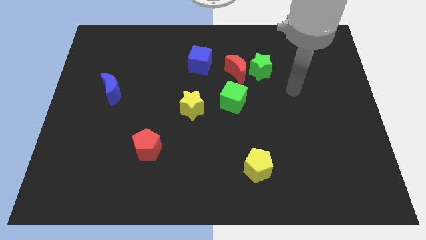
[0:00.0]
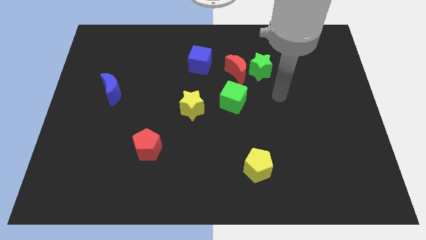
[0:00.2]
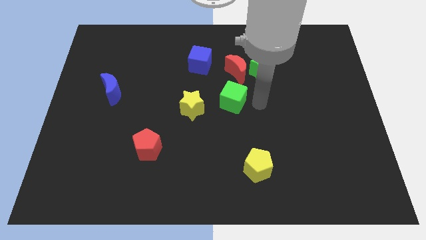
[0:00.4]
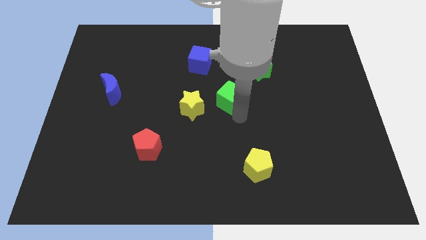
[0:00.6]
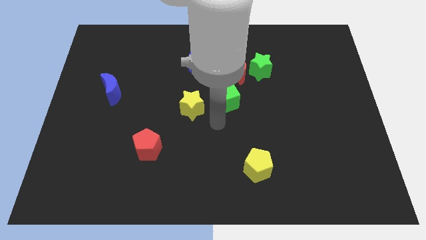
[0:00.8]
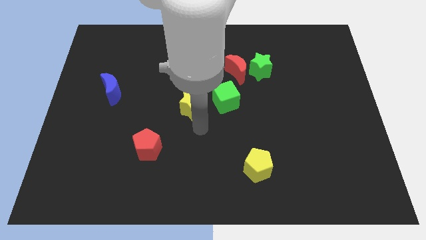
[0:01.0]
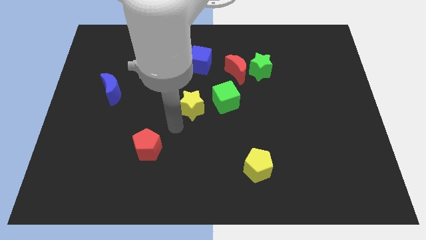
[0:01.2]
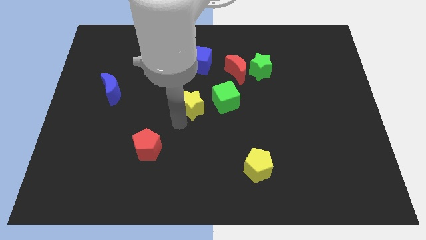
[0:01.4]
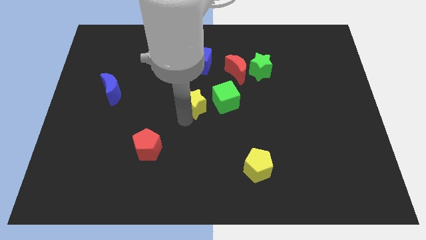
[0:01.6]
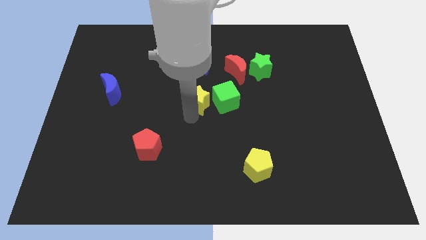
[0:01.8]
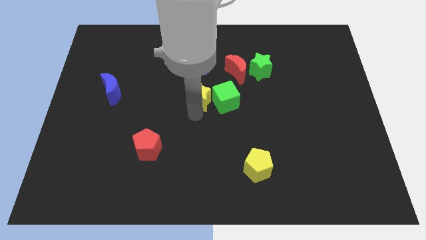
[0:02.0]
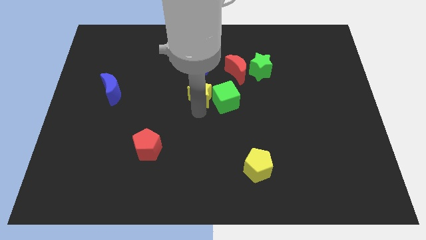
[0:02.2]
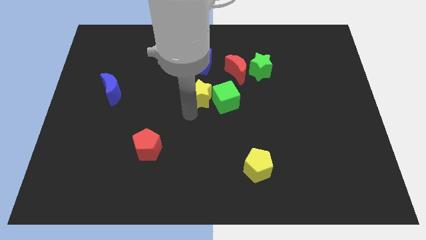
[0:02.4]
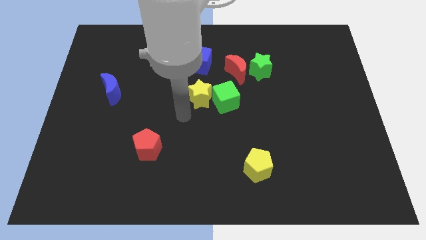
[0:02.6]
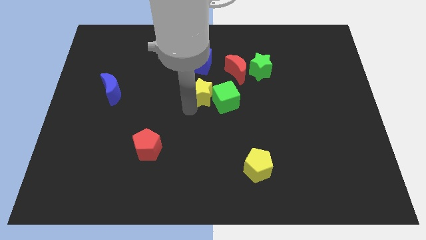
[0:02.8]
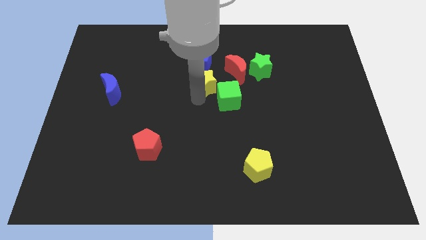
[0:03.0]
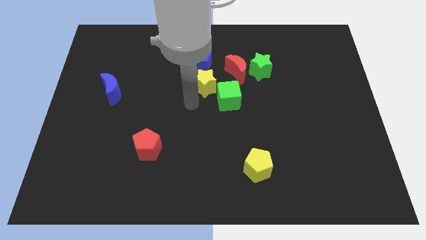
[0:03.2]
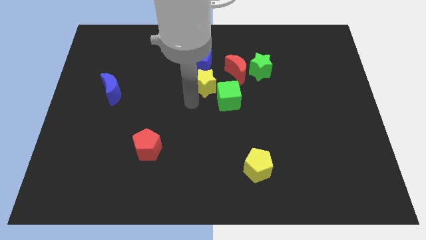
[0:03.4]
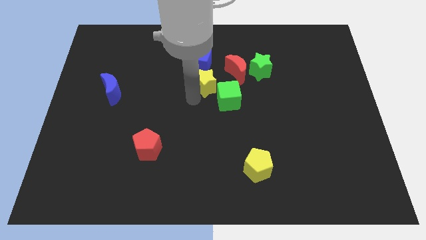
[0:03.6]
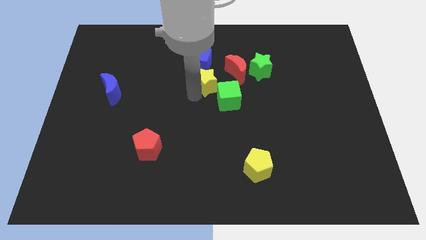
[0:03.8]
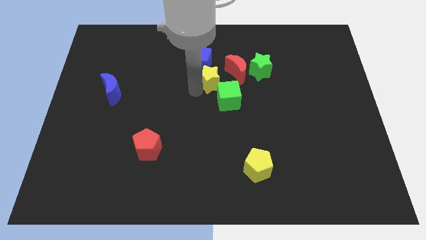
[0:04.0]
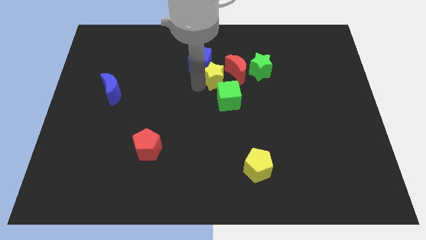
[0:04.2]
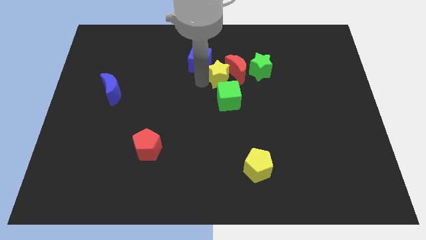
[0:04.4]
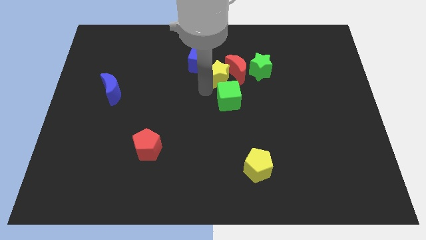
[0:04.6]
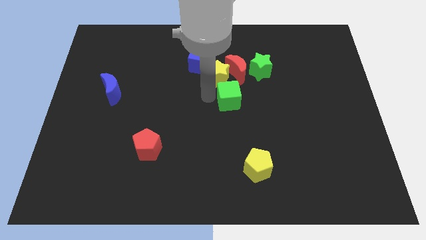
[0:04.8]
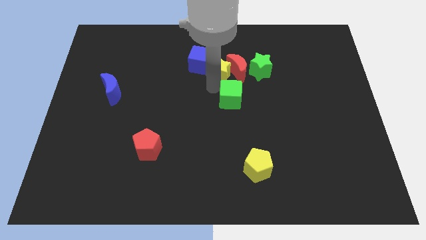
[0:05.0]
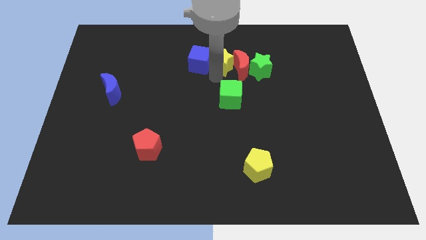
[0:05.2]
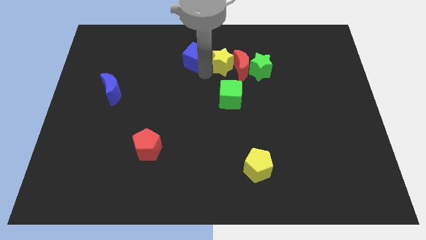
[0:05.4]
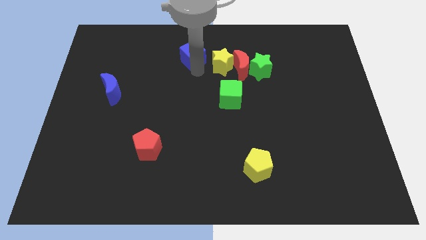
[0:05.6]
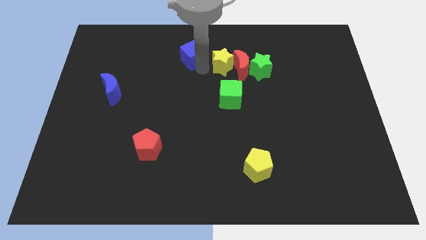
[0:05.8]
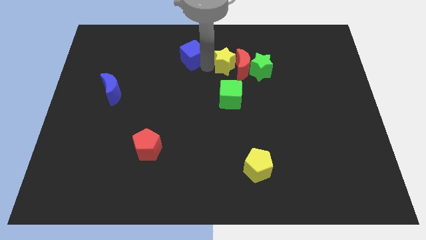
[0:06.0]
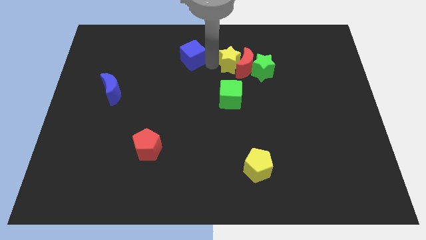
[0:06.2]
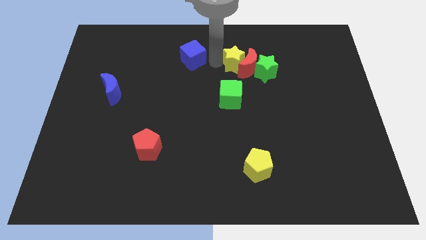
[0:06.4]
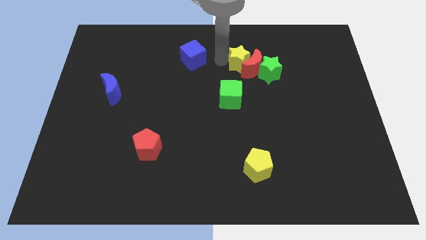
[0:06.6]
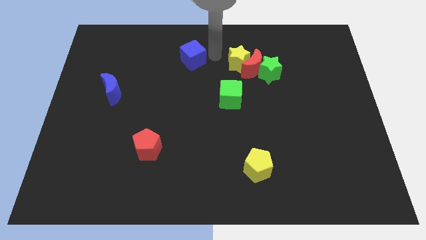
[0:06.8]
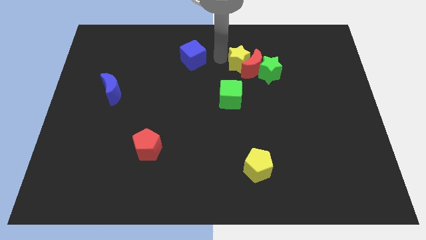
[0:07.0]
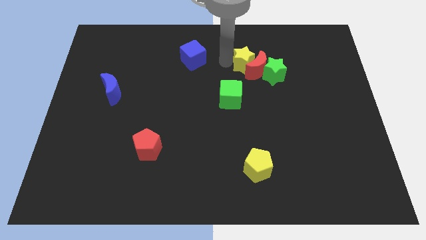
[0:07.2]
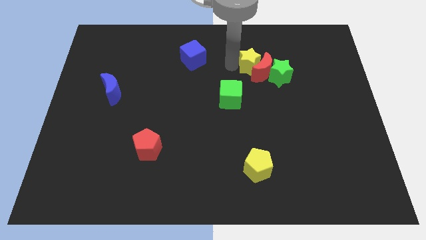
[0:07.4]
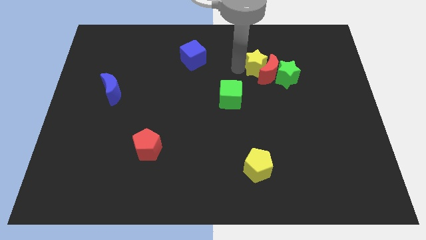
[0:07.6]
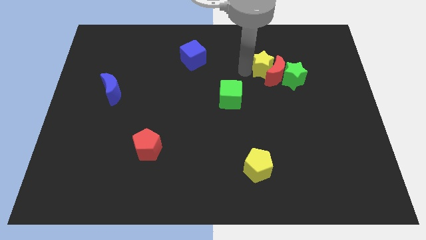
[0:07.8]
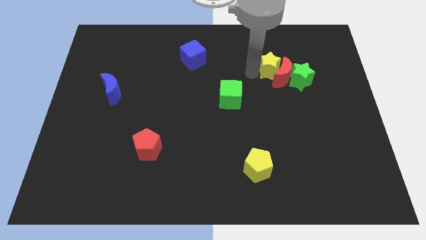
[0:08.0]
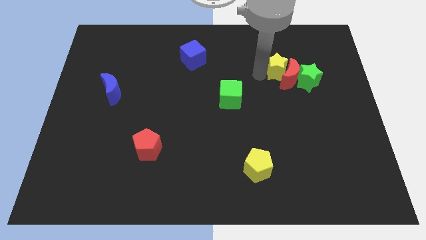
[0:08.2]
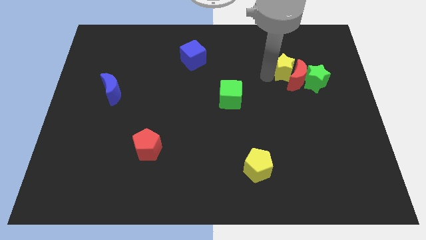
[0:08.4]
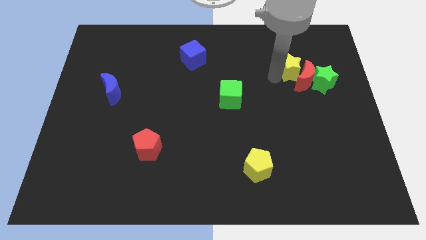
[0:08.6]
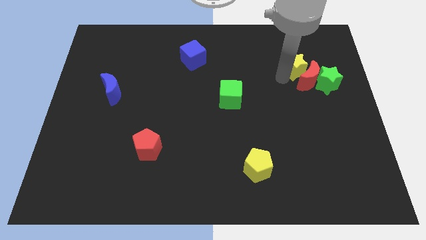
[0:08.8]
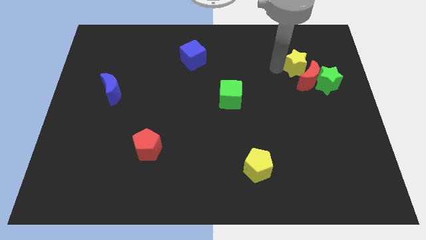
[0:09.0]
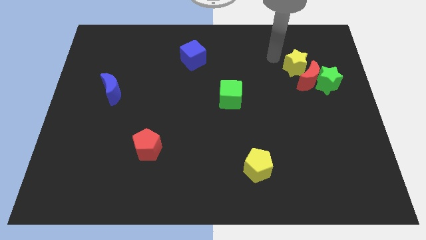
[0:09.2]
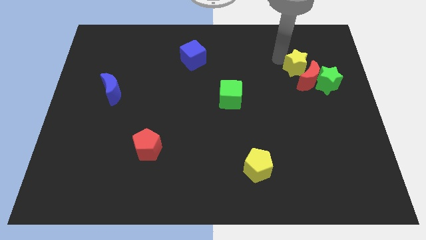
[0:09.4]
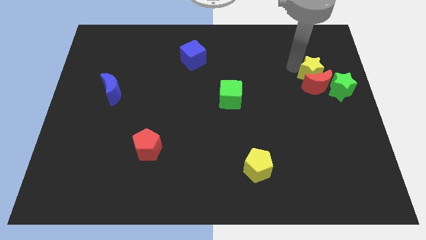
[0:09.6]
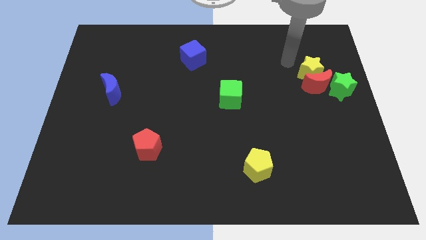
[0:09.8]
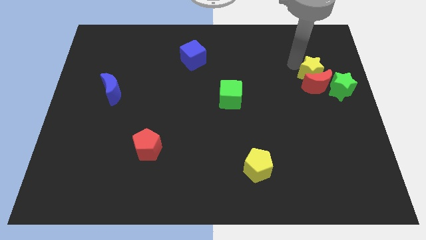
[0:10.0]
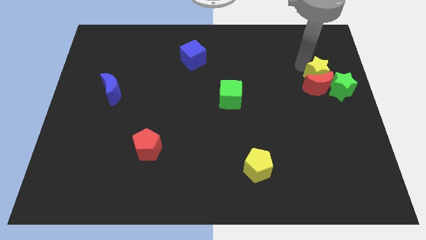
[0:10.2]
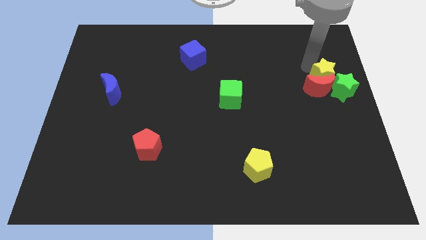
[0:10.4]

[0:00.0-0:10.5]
move the yellow star close to the green star

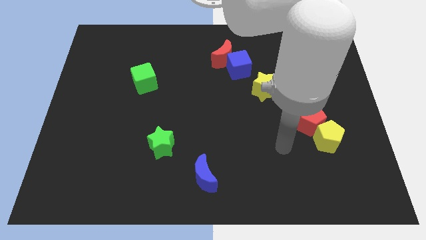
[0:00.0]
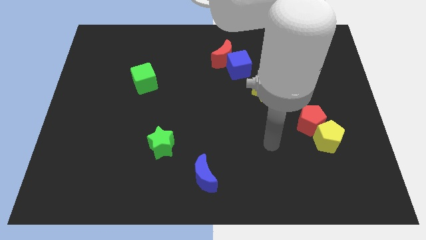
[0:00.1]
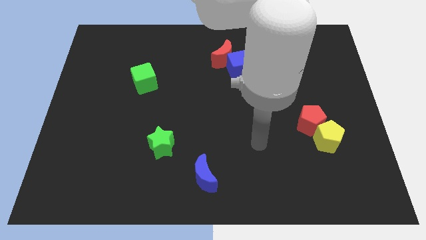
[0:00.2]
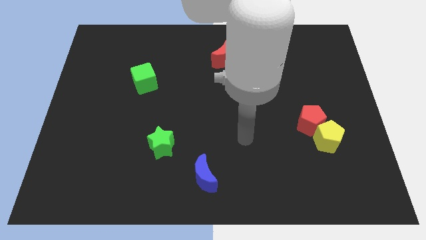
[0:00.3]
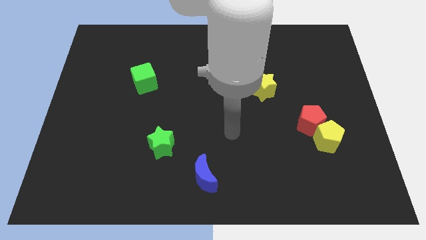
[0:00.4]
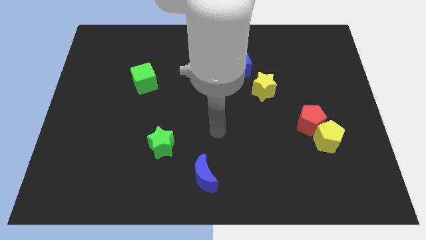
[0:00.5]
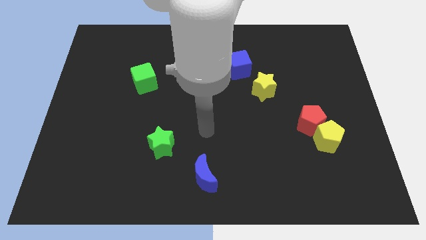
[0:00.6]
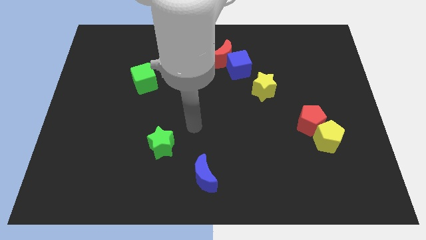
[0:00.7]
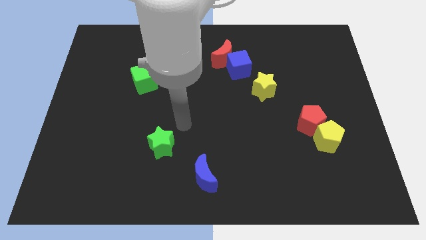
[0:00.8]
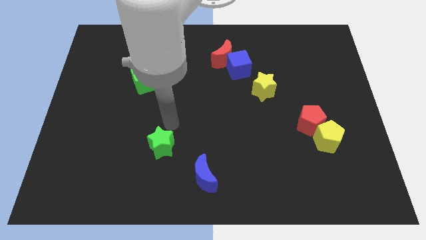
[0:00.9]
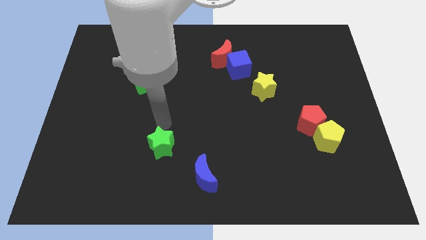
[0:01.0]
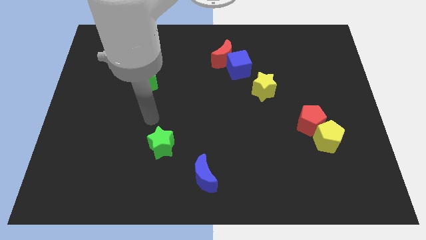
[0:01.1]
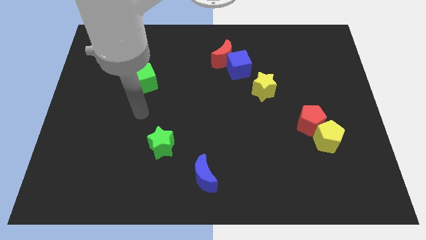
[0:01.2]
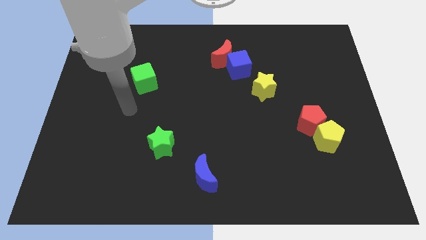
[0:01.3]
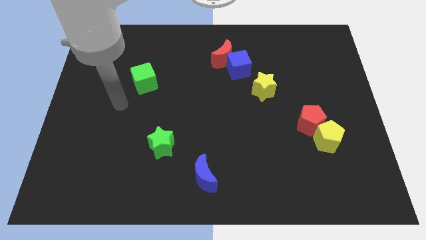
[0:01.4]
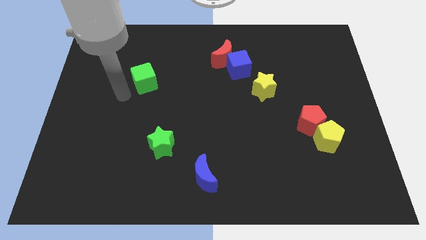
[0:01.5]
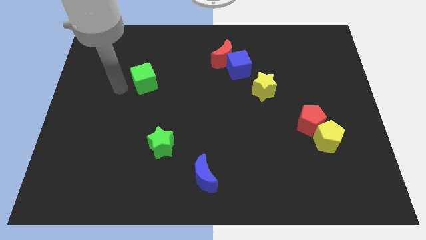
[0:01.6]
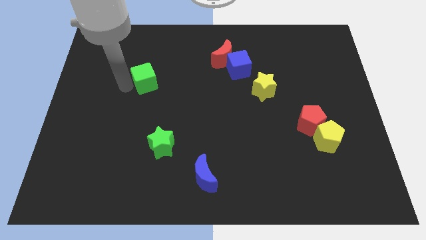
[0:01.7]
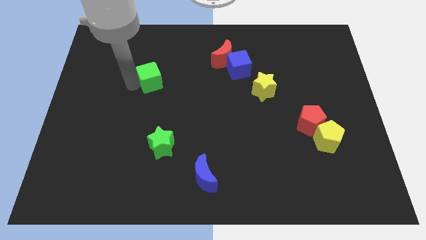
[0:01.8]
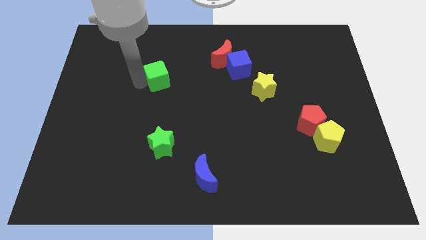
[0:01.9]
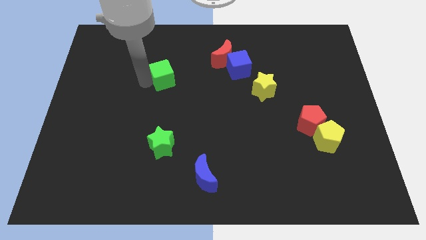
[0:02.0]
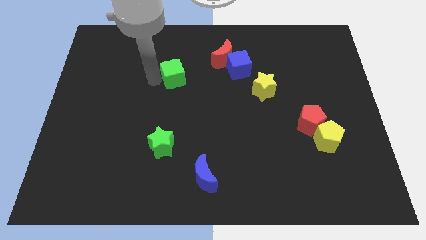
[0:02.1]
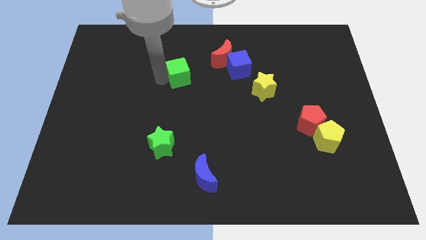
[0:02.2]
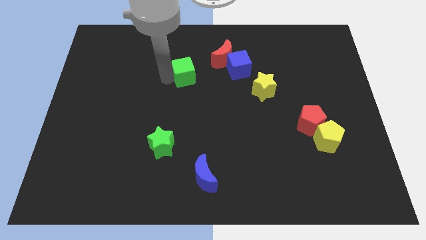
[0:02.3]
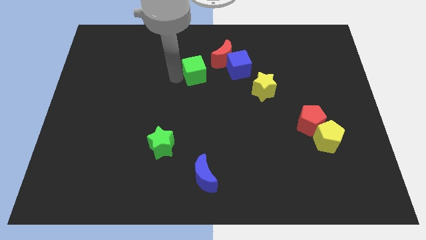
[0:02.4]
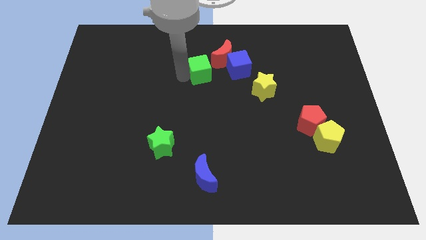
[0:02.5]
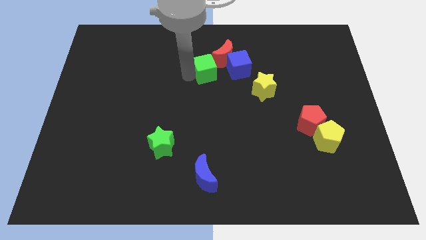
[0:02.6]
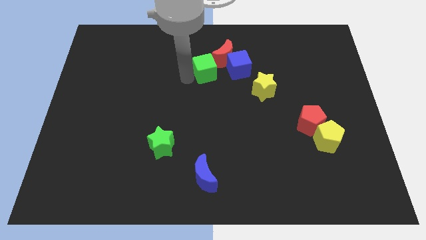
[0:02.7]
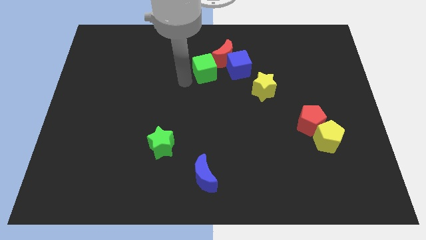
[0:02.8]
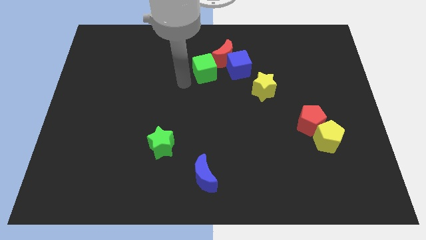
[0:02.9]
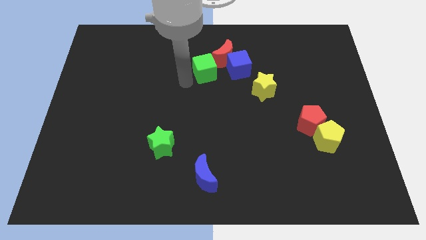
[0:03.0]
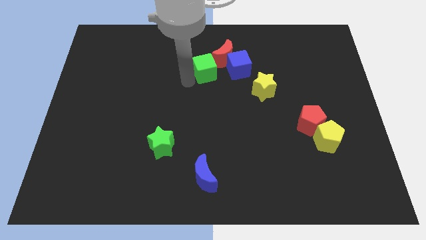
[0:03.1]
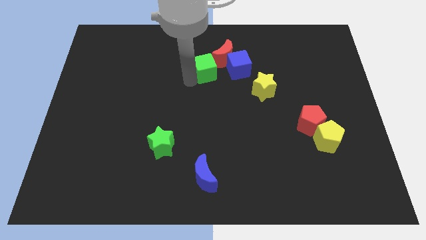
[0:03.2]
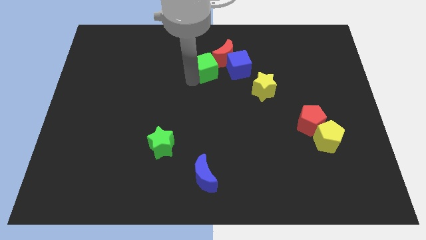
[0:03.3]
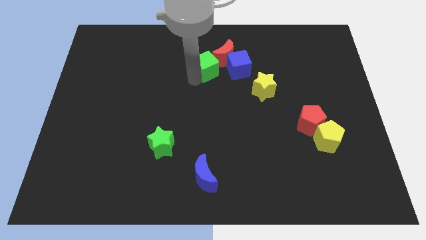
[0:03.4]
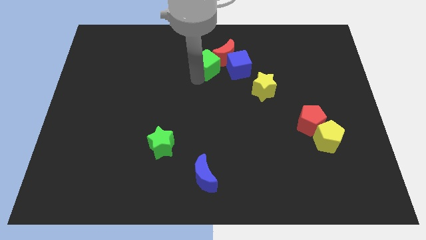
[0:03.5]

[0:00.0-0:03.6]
slide the green cube next to the red moon
